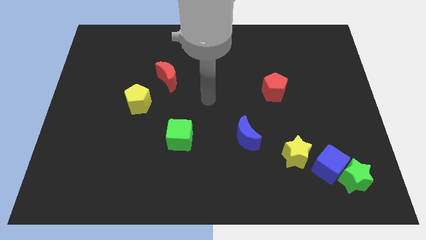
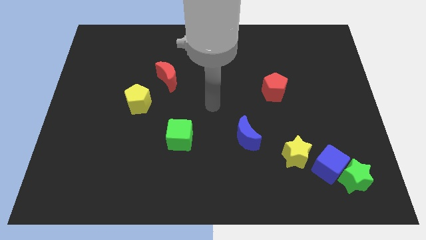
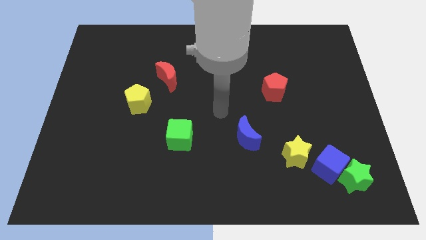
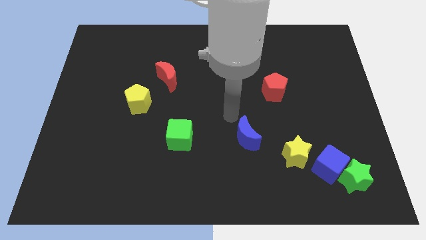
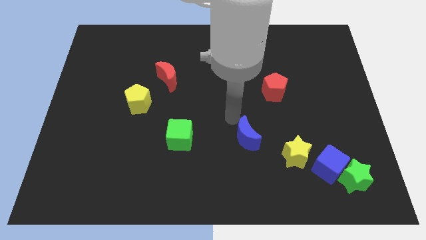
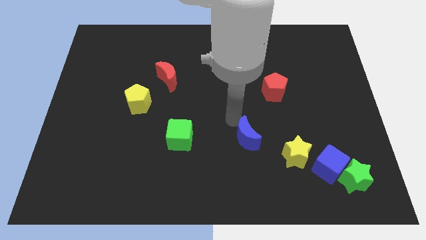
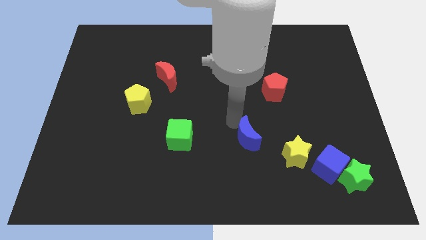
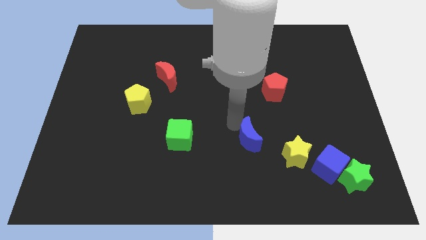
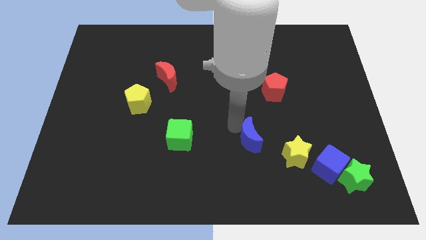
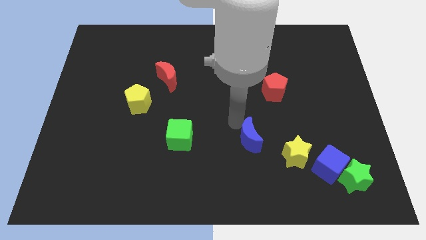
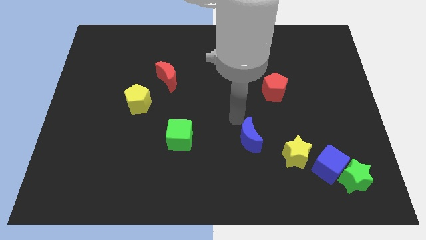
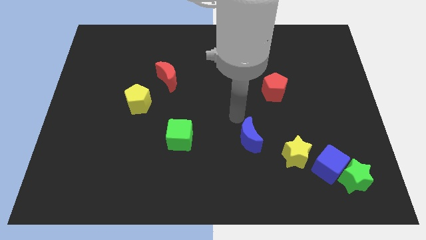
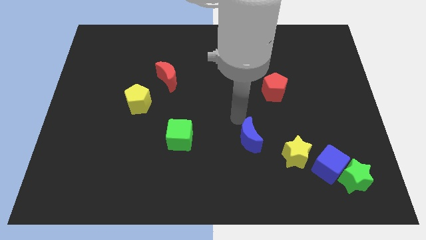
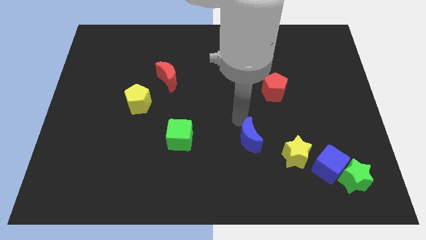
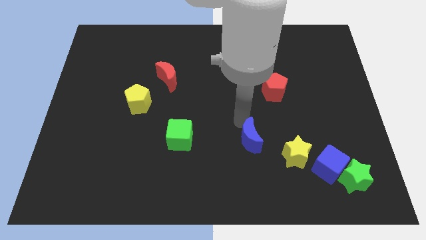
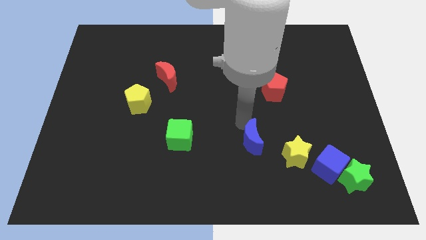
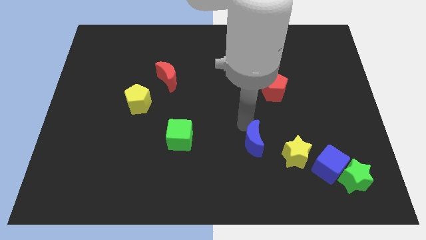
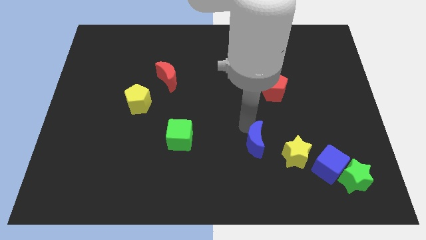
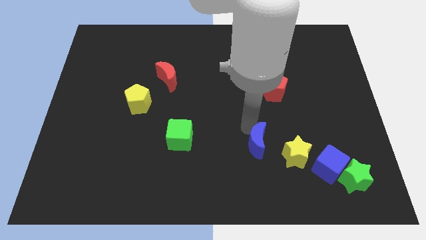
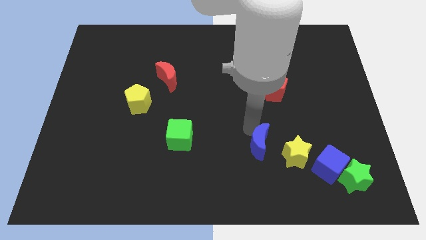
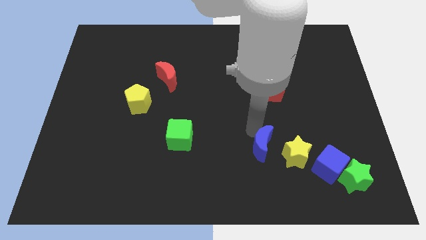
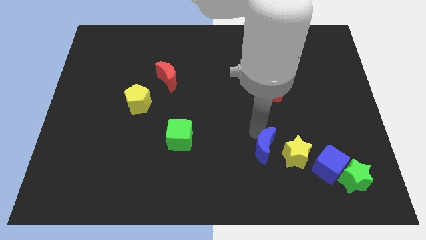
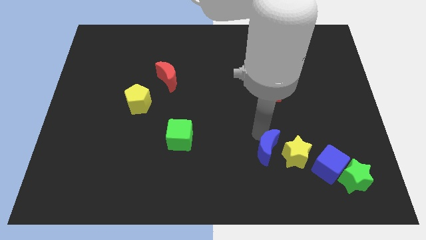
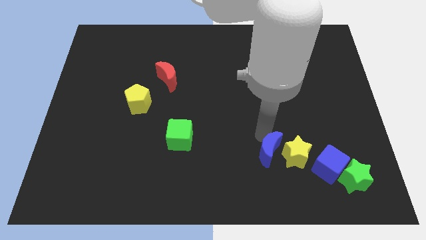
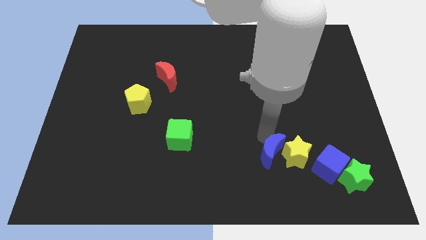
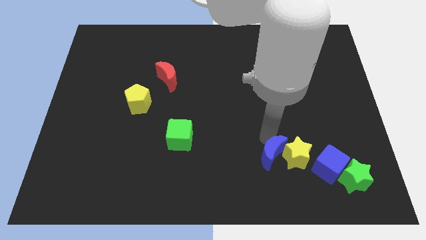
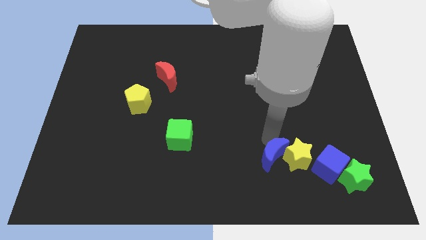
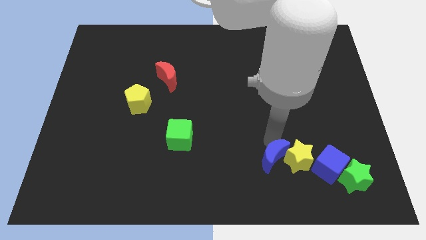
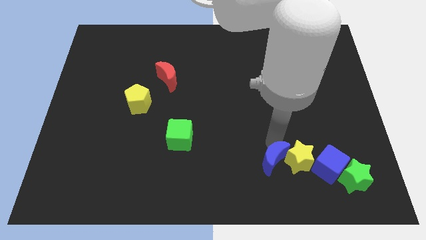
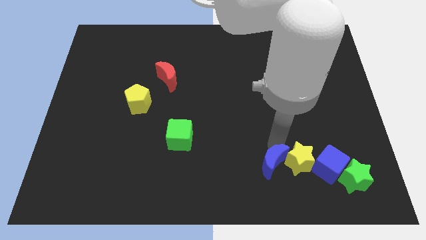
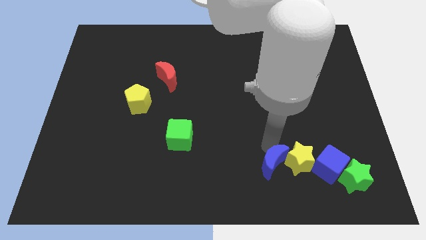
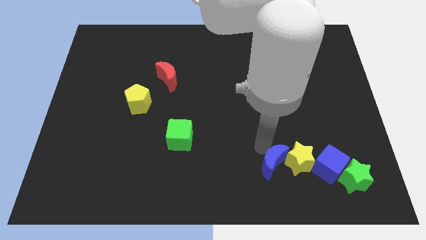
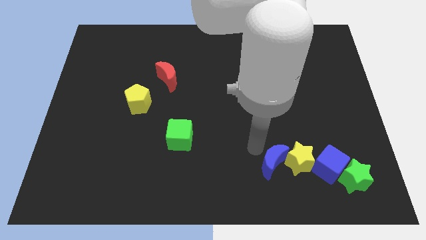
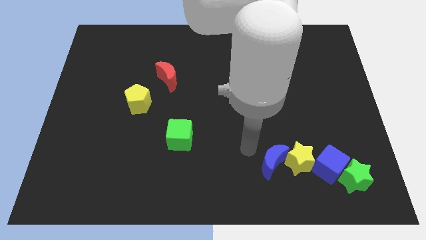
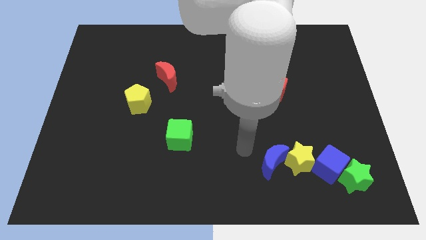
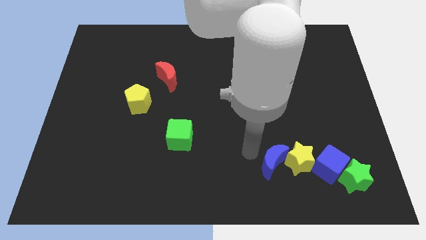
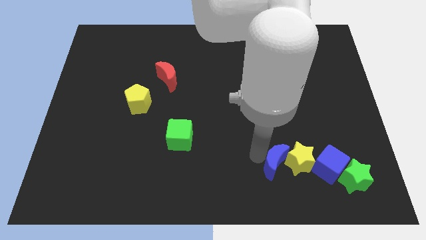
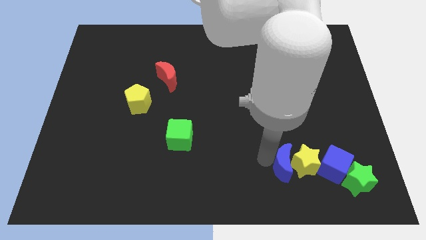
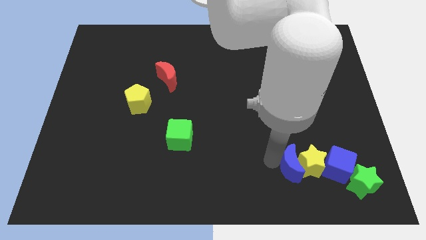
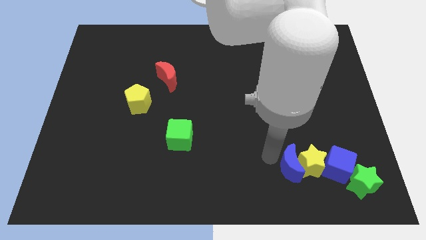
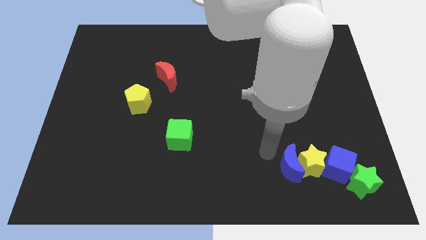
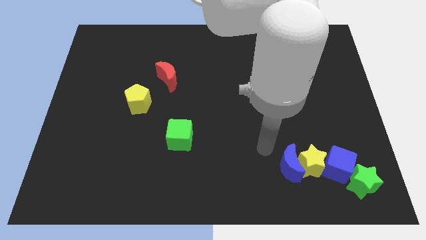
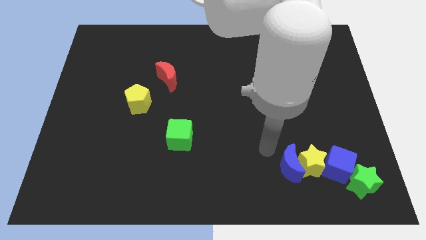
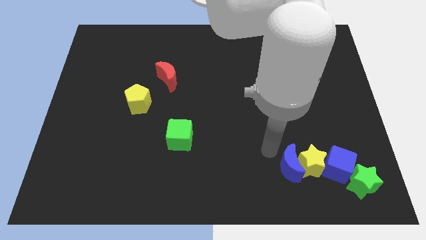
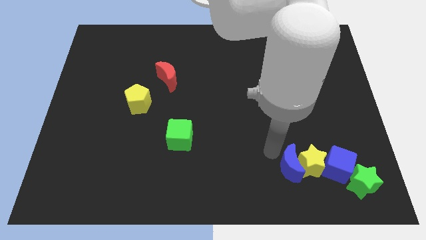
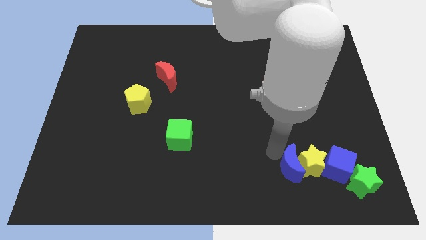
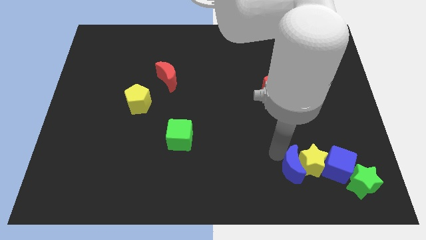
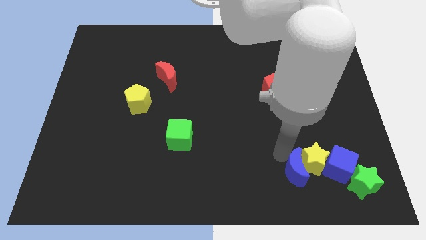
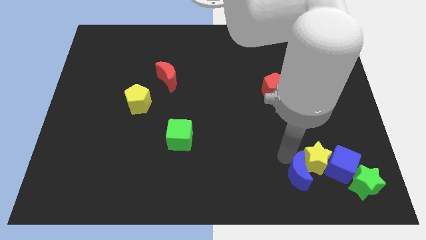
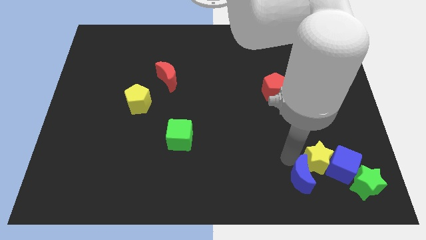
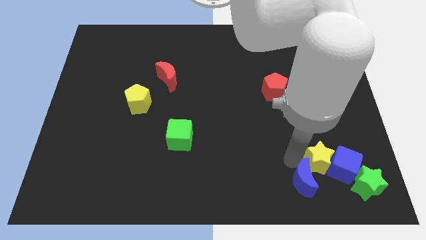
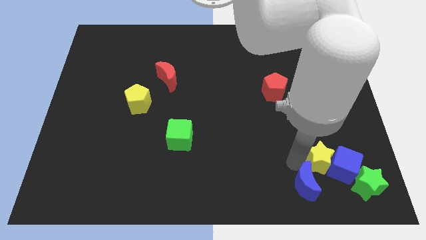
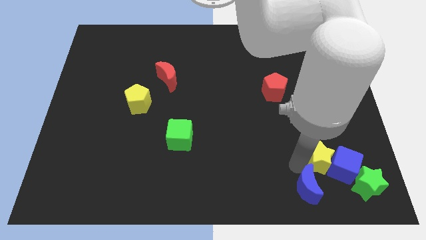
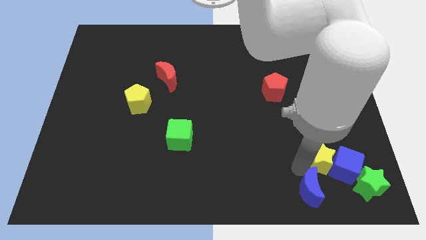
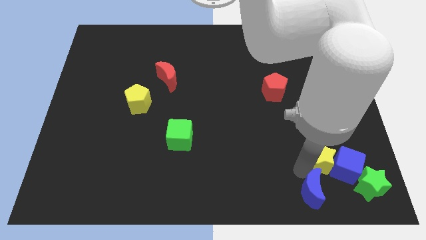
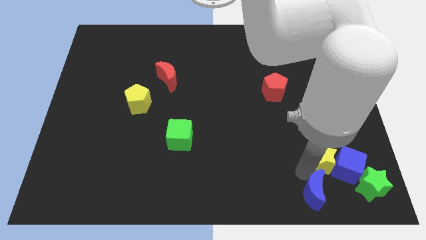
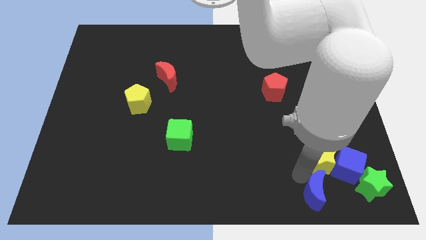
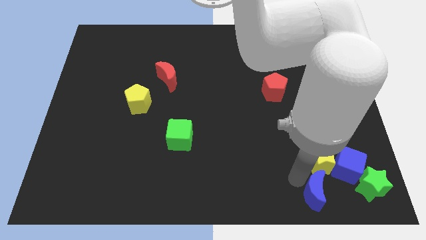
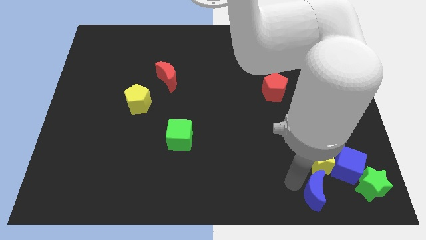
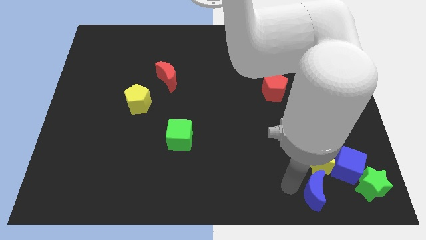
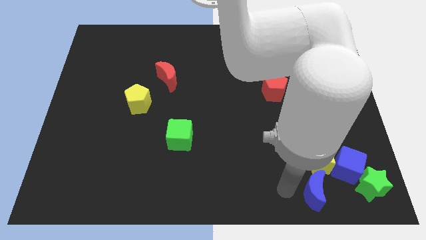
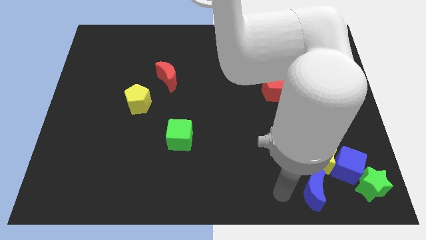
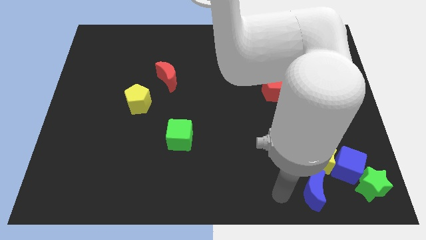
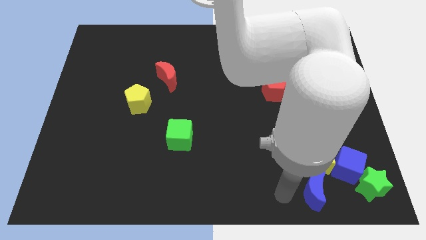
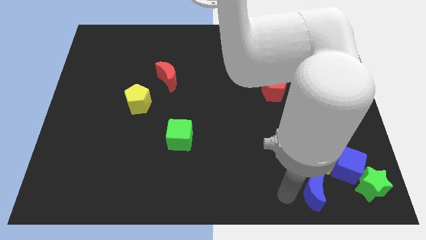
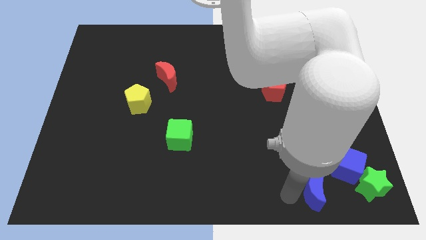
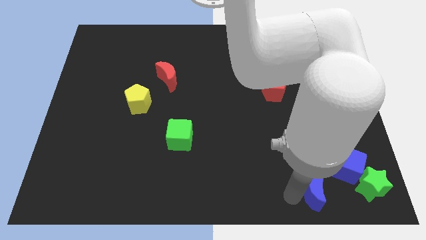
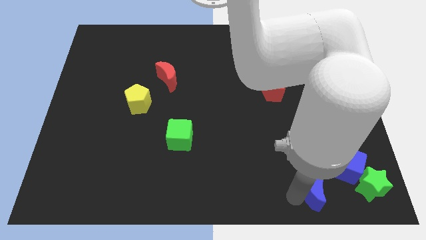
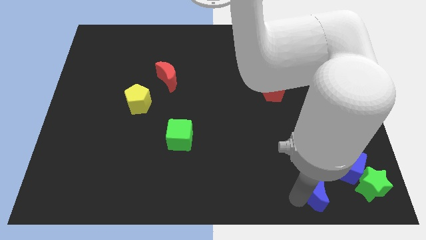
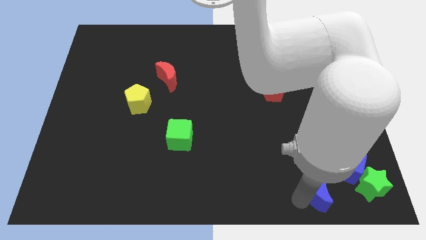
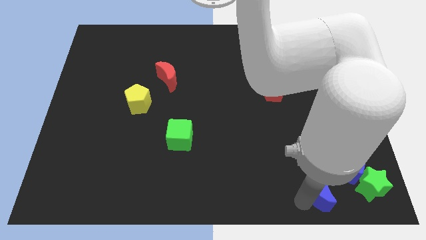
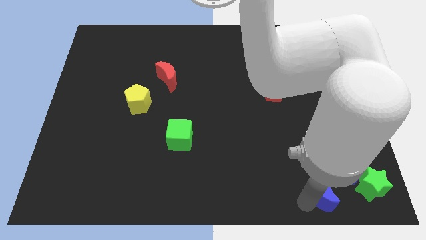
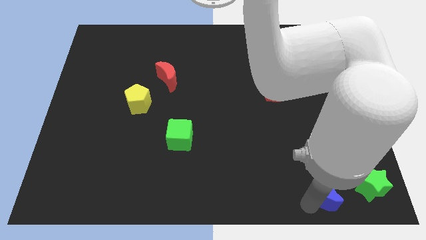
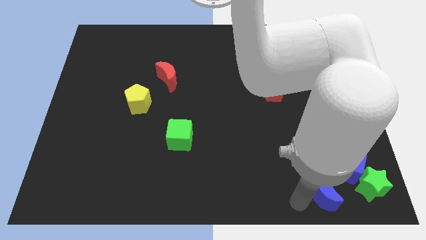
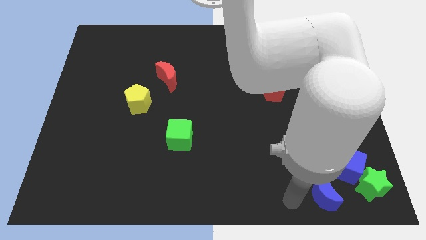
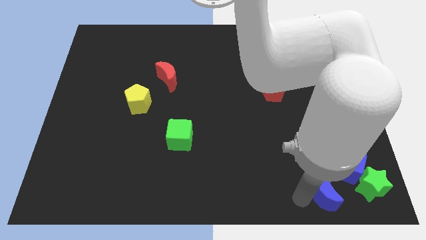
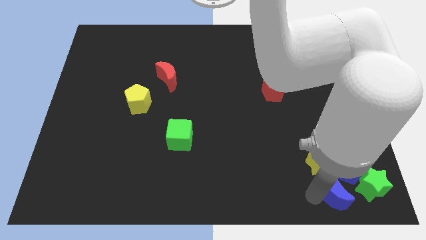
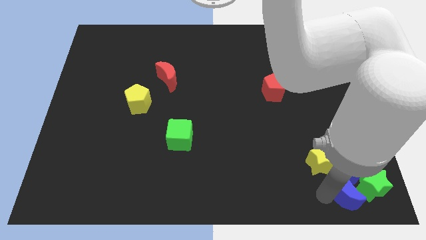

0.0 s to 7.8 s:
slide the blue moon towards the green star
